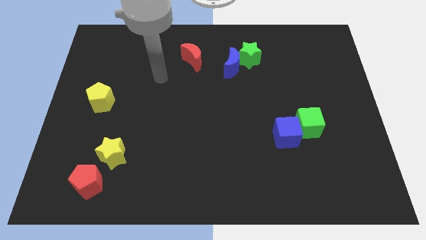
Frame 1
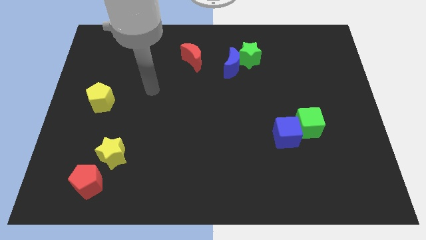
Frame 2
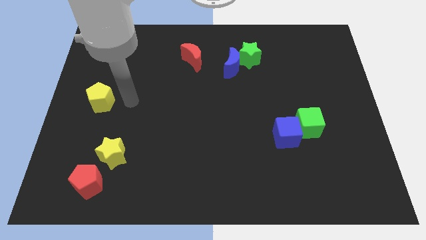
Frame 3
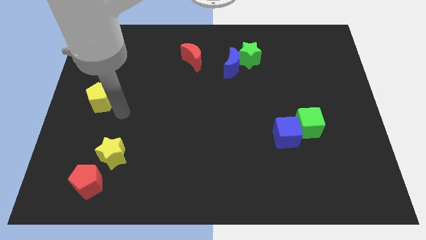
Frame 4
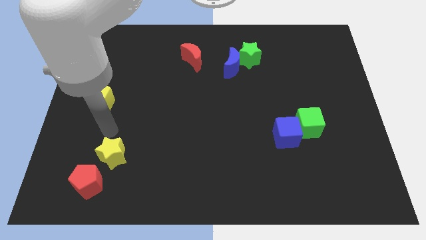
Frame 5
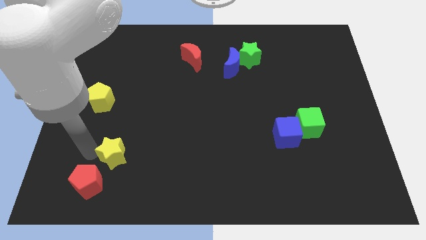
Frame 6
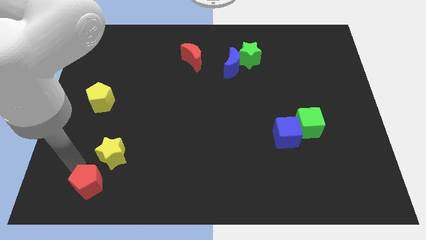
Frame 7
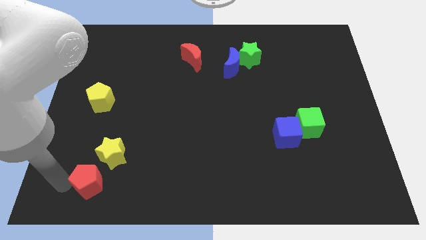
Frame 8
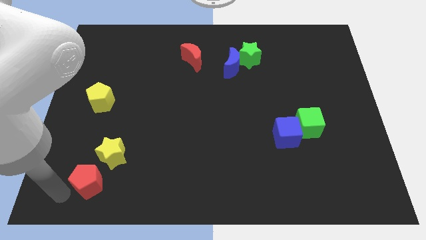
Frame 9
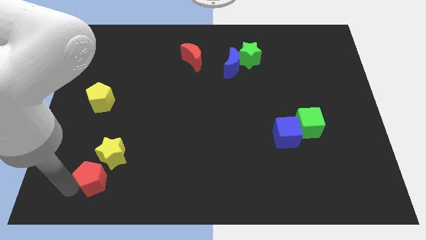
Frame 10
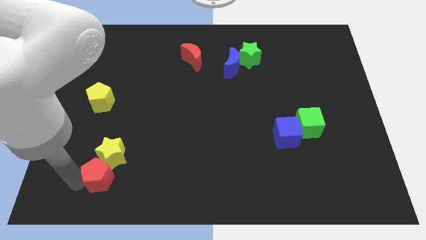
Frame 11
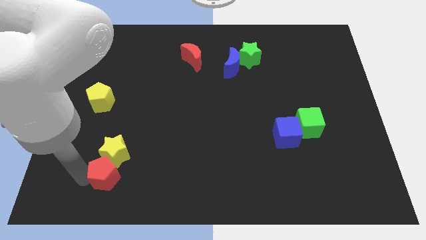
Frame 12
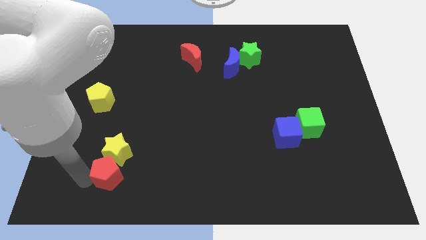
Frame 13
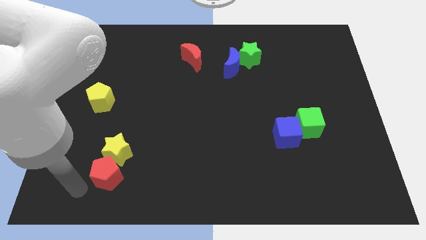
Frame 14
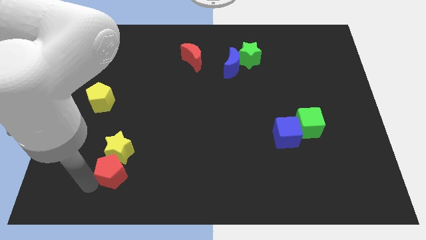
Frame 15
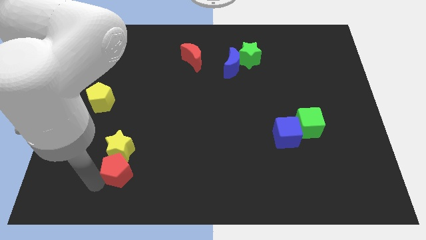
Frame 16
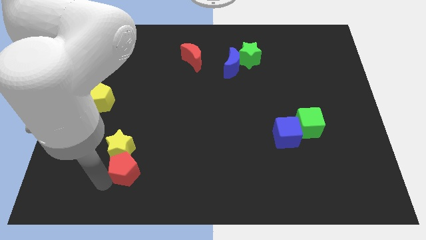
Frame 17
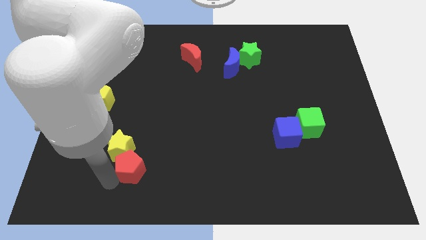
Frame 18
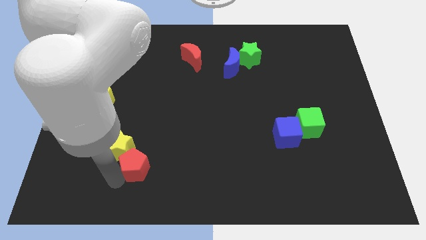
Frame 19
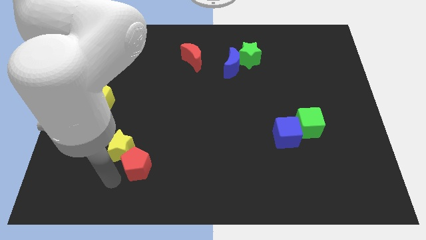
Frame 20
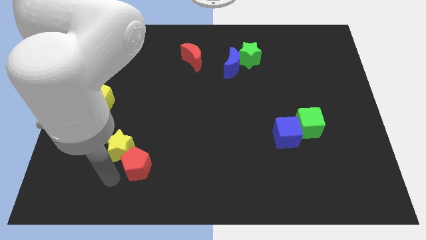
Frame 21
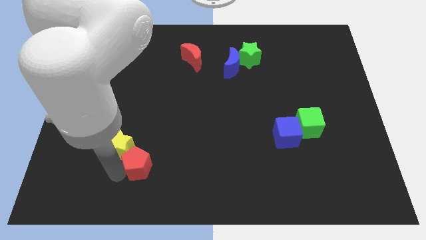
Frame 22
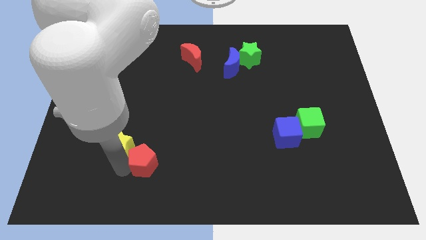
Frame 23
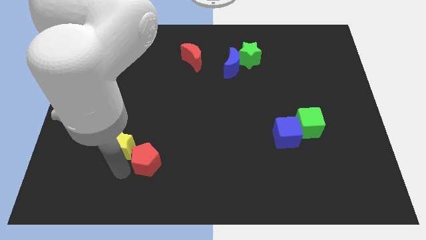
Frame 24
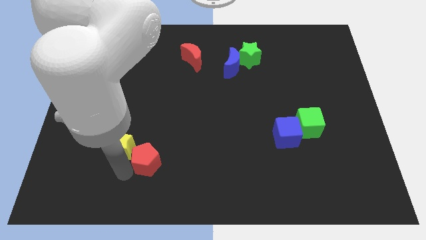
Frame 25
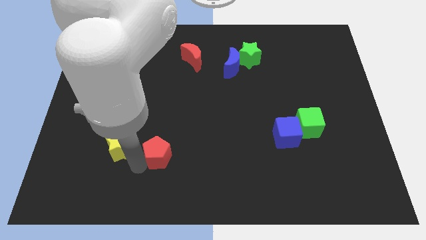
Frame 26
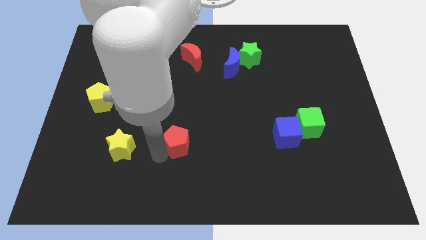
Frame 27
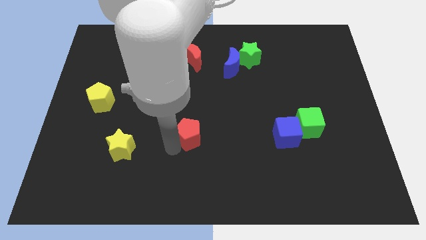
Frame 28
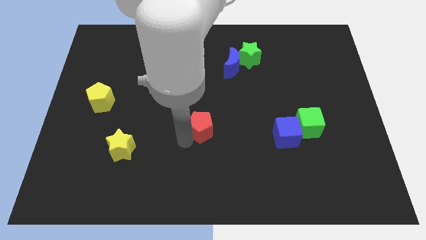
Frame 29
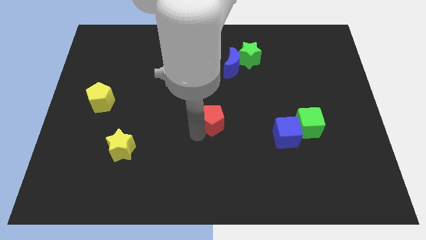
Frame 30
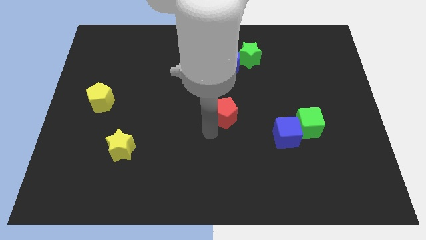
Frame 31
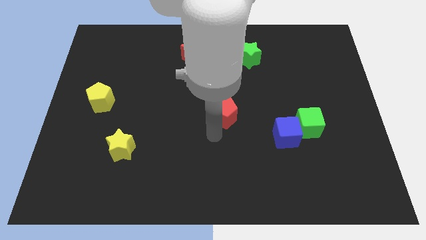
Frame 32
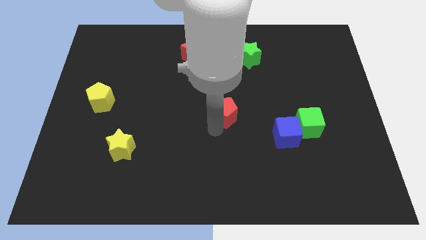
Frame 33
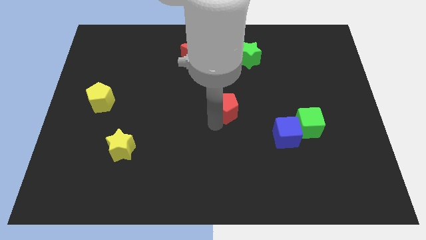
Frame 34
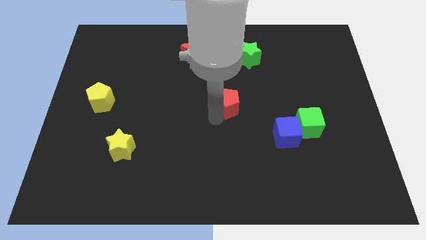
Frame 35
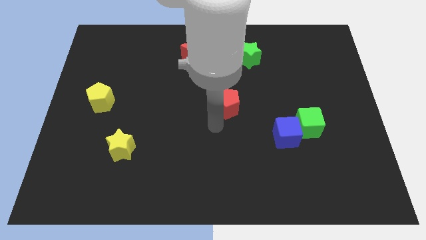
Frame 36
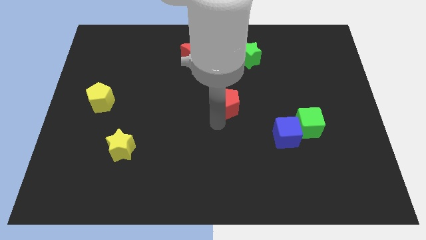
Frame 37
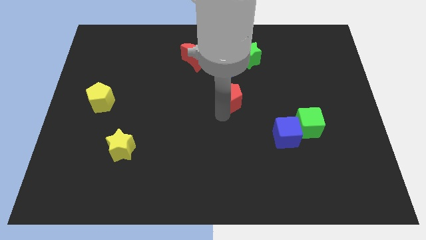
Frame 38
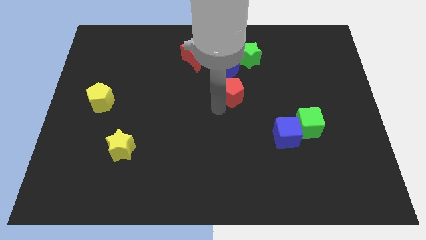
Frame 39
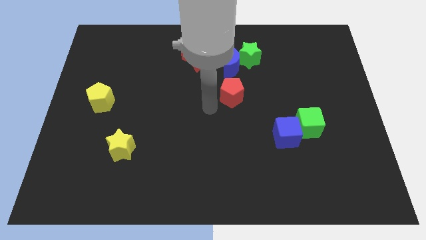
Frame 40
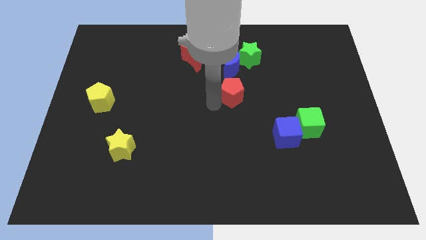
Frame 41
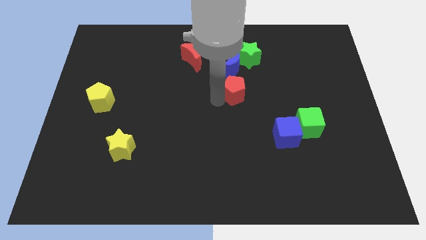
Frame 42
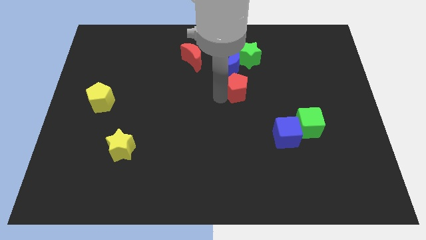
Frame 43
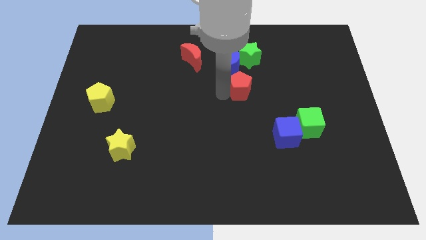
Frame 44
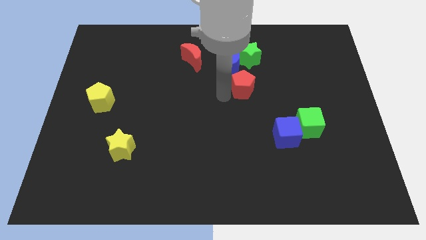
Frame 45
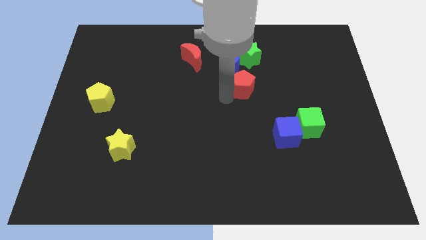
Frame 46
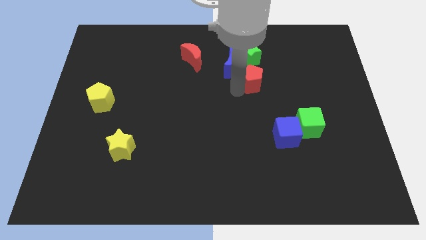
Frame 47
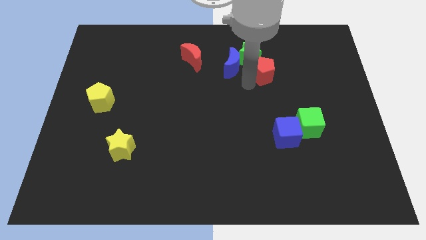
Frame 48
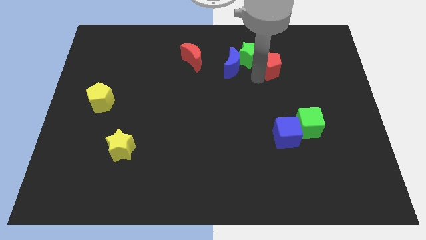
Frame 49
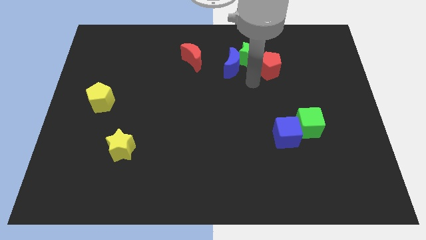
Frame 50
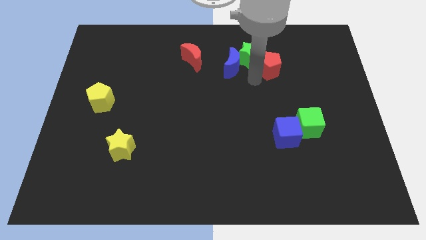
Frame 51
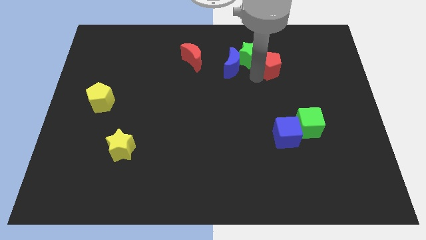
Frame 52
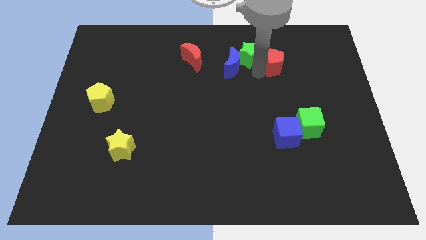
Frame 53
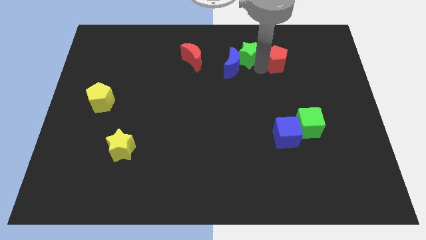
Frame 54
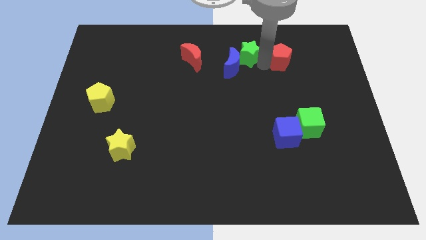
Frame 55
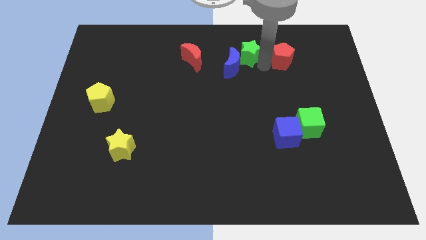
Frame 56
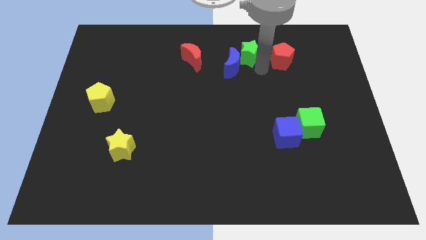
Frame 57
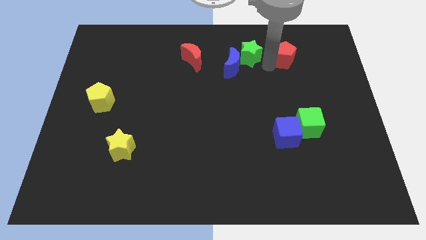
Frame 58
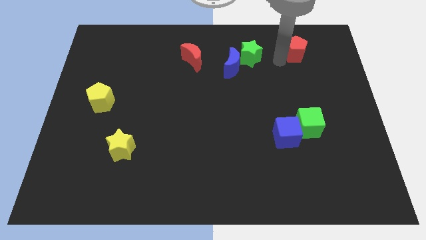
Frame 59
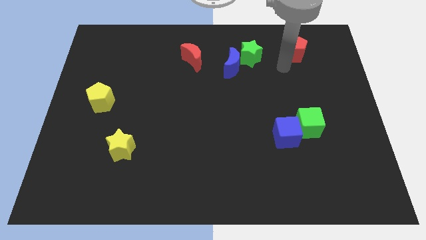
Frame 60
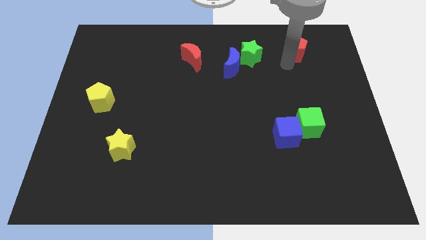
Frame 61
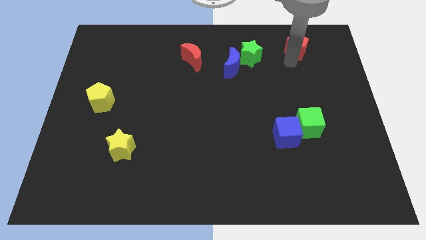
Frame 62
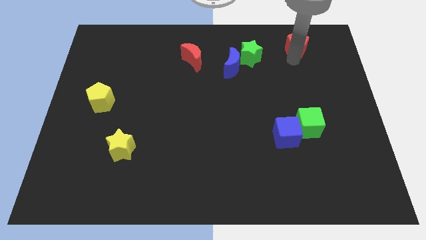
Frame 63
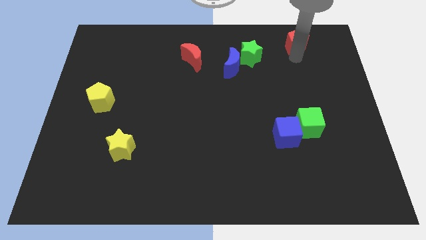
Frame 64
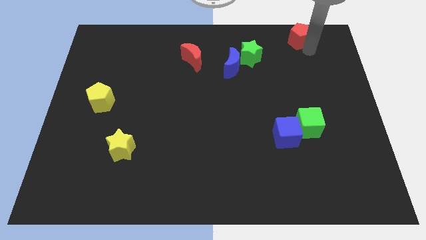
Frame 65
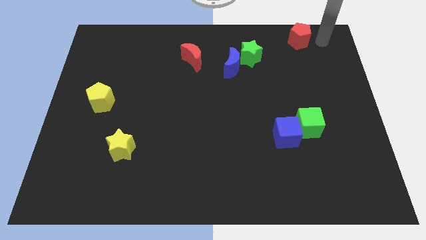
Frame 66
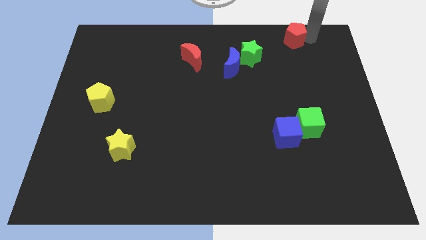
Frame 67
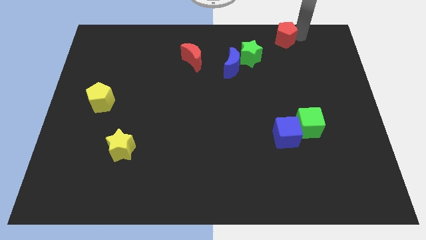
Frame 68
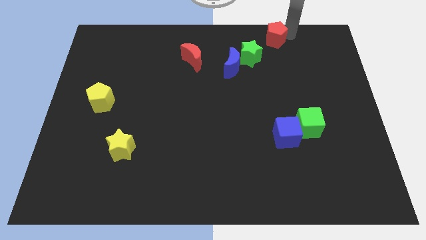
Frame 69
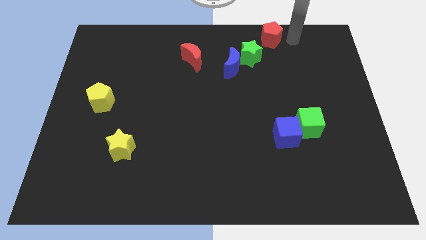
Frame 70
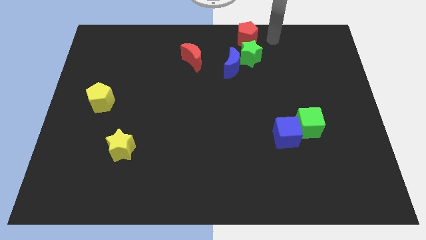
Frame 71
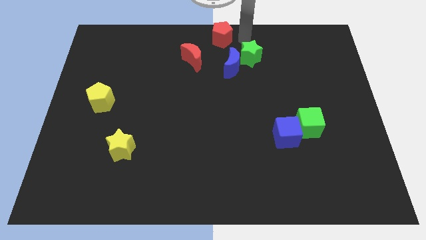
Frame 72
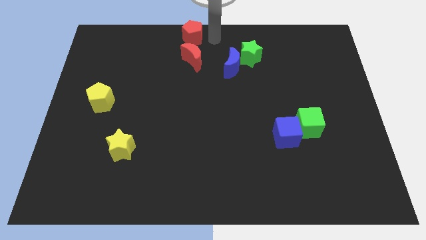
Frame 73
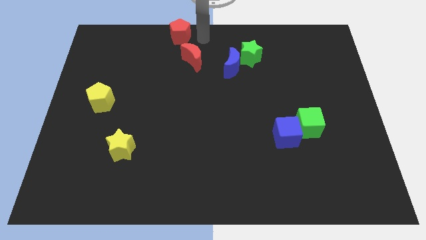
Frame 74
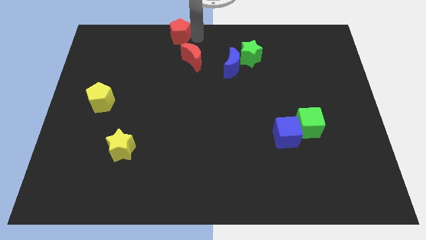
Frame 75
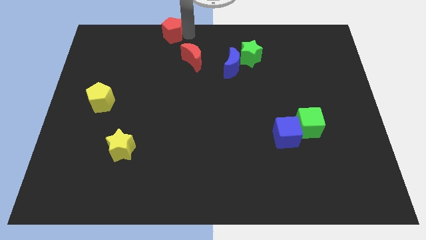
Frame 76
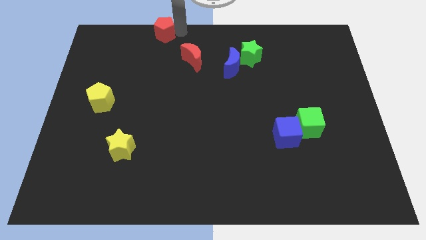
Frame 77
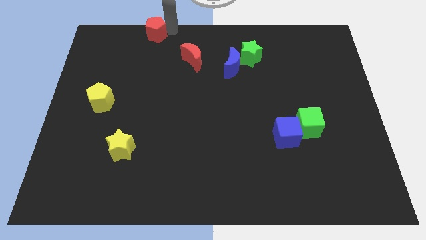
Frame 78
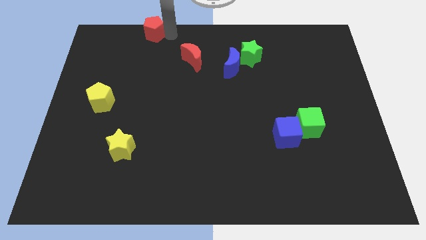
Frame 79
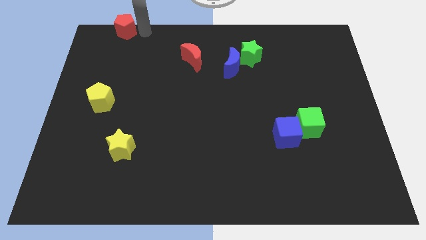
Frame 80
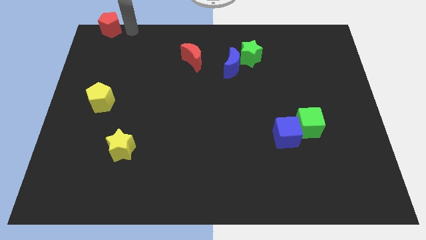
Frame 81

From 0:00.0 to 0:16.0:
move the red pentagon to the top left corner
